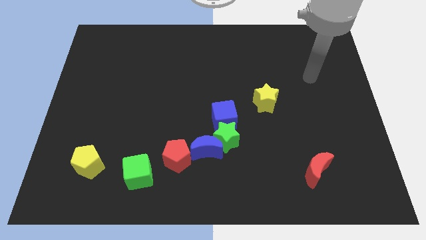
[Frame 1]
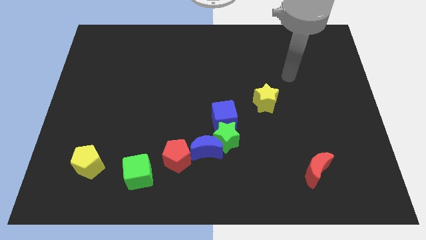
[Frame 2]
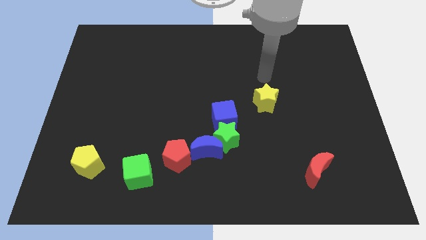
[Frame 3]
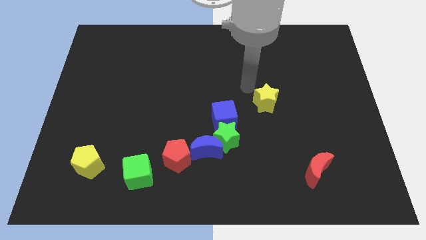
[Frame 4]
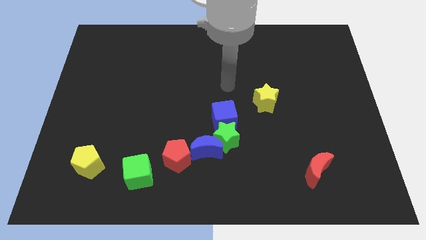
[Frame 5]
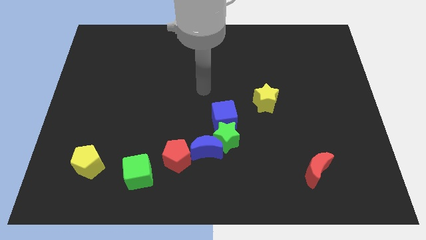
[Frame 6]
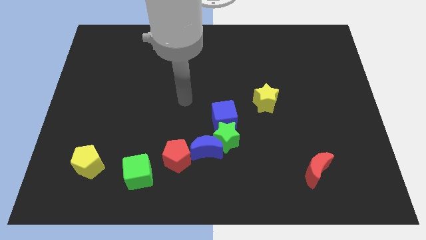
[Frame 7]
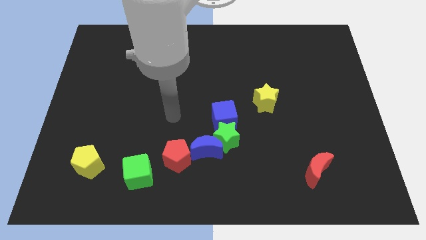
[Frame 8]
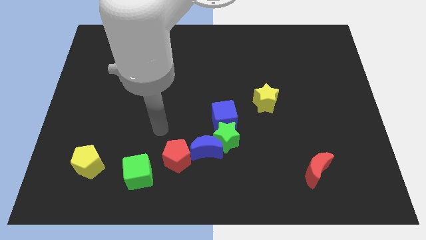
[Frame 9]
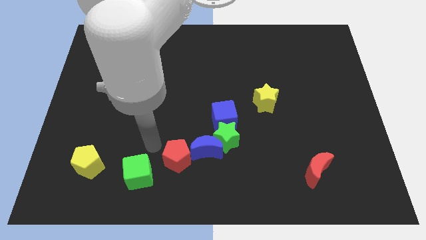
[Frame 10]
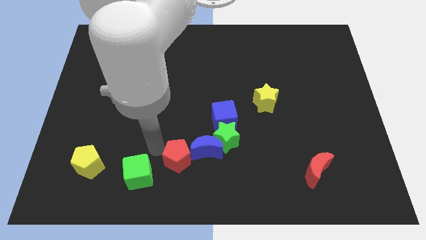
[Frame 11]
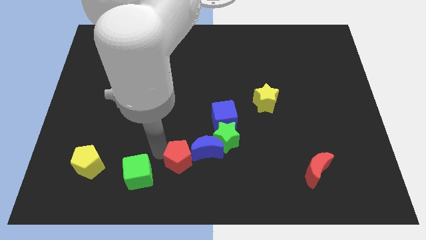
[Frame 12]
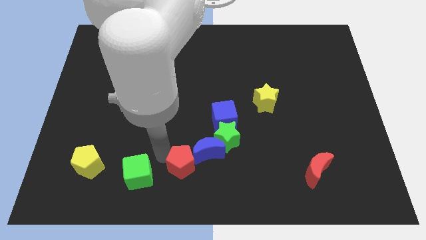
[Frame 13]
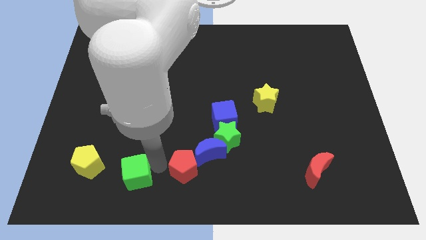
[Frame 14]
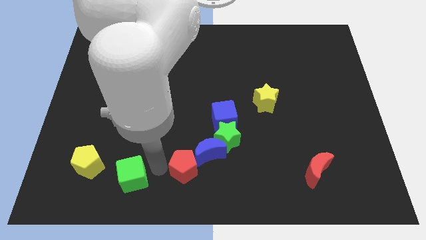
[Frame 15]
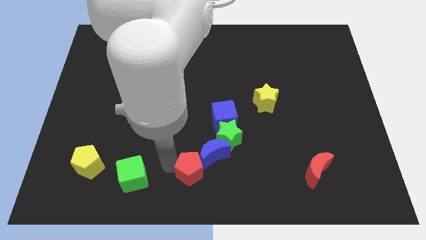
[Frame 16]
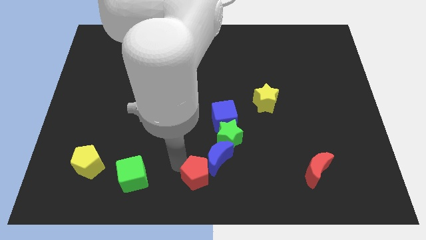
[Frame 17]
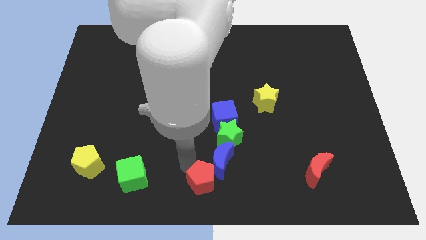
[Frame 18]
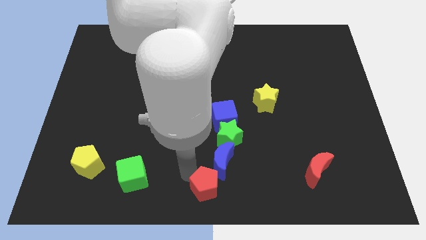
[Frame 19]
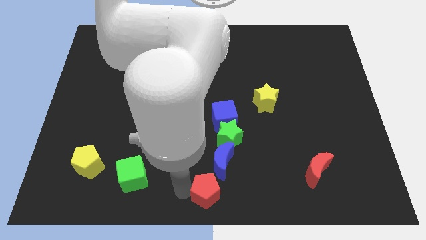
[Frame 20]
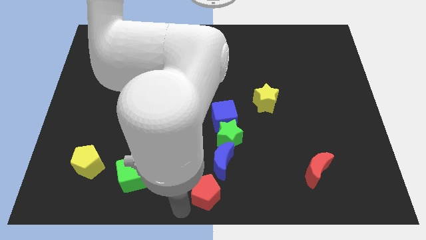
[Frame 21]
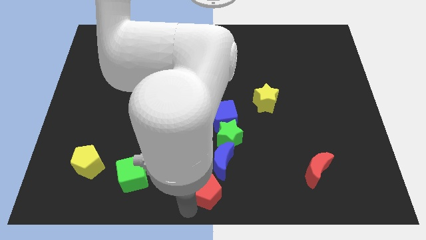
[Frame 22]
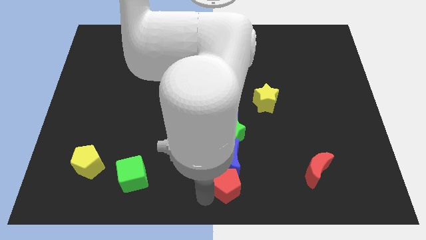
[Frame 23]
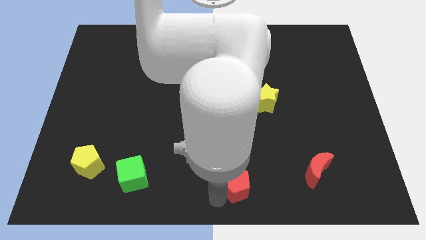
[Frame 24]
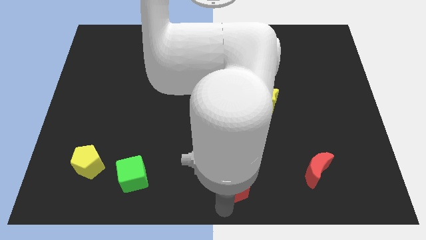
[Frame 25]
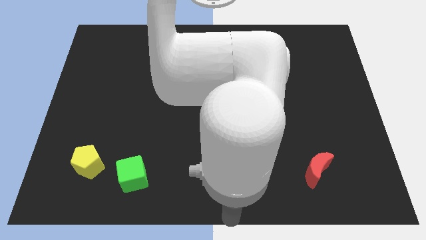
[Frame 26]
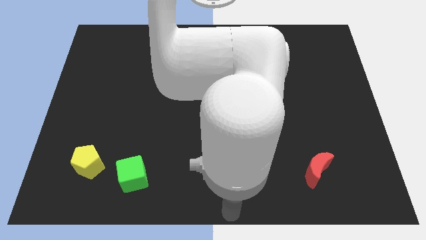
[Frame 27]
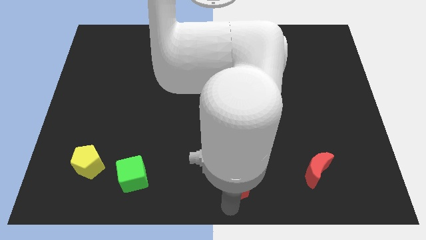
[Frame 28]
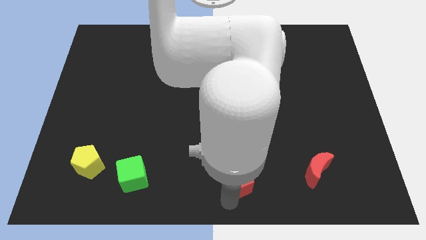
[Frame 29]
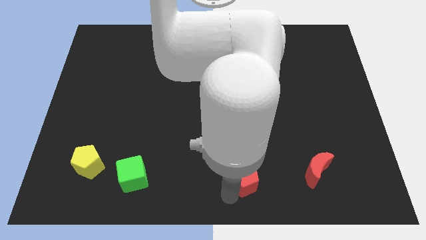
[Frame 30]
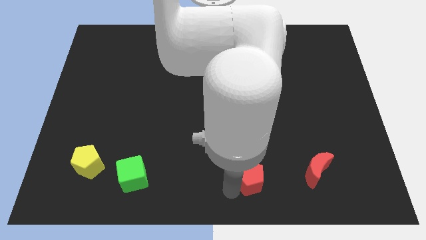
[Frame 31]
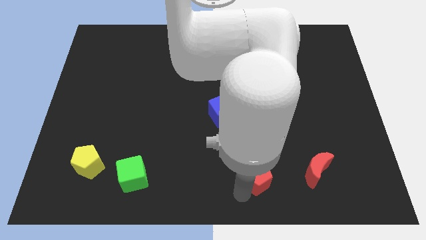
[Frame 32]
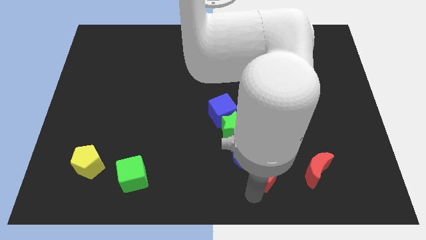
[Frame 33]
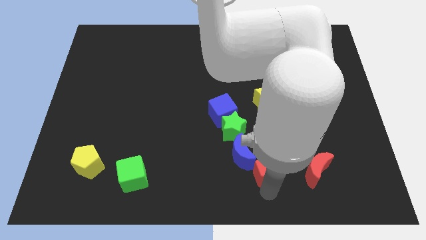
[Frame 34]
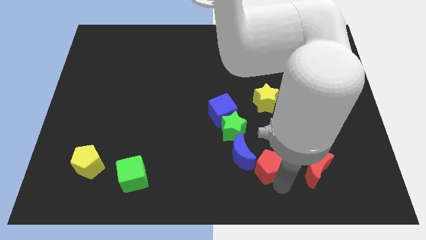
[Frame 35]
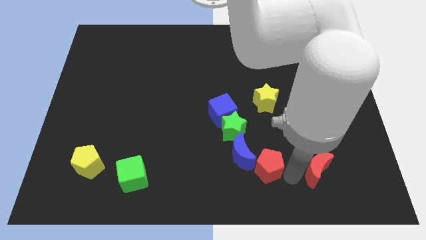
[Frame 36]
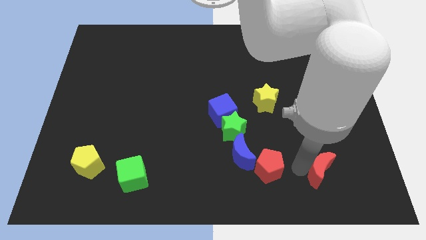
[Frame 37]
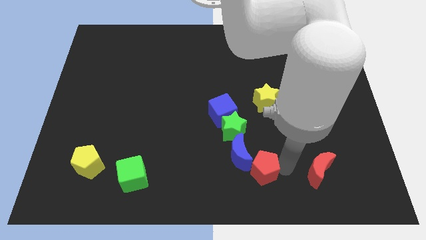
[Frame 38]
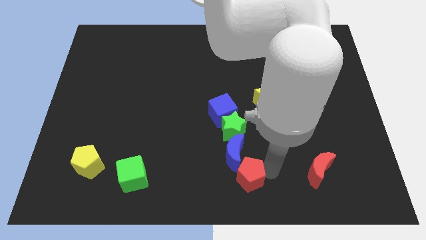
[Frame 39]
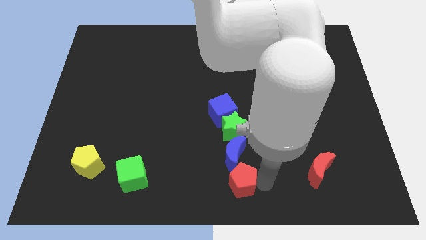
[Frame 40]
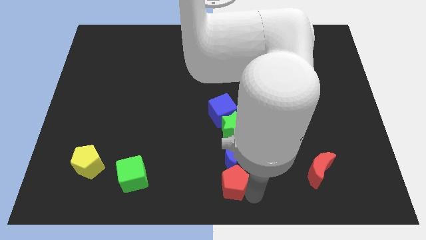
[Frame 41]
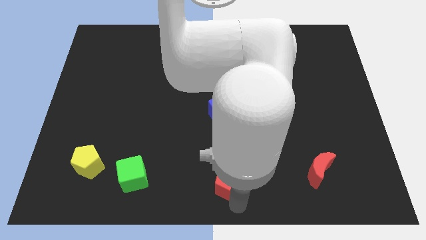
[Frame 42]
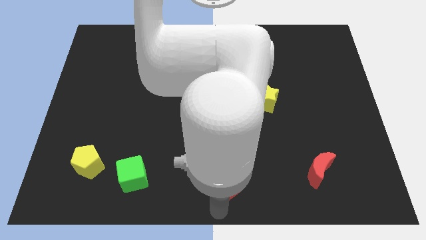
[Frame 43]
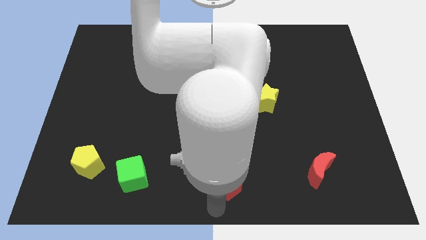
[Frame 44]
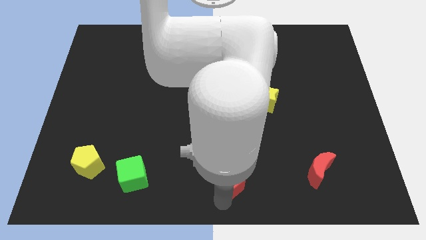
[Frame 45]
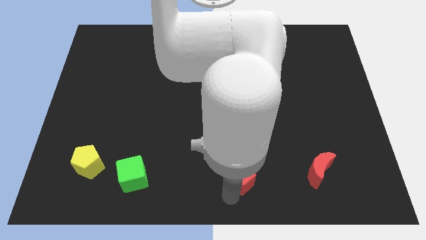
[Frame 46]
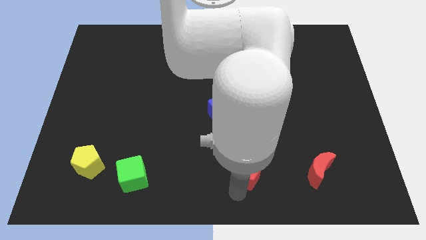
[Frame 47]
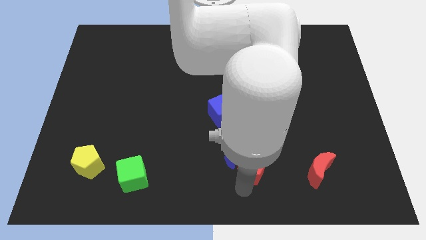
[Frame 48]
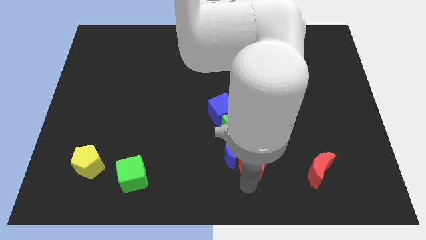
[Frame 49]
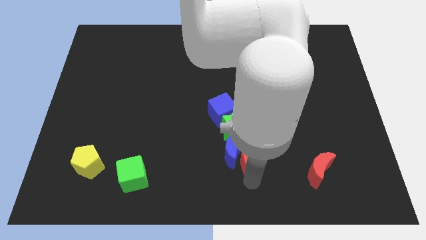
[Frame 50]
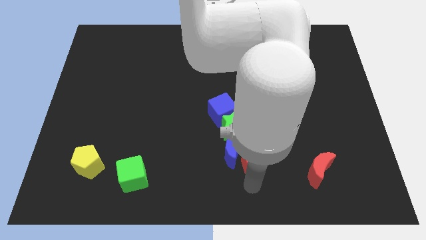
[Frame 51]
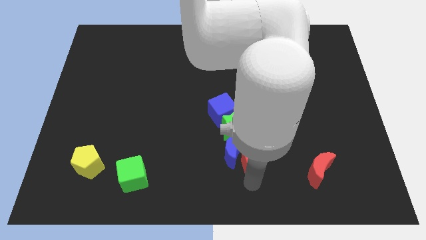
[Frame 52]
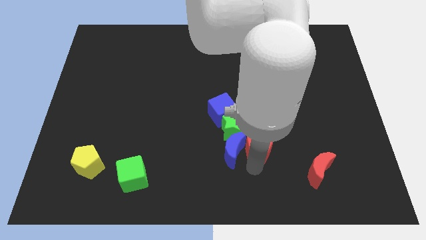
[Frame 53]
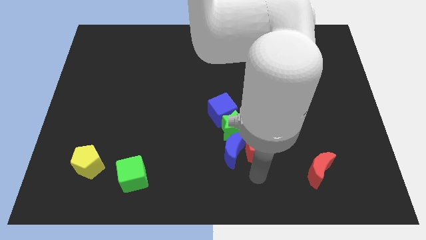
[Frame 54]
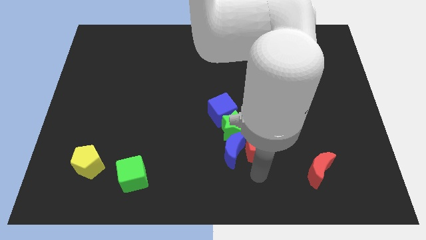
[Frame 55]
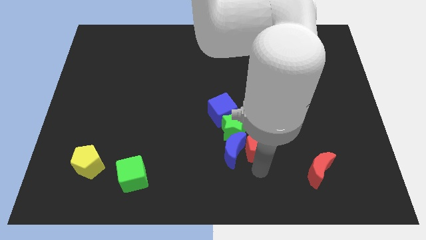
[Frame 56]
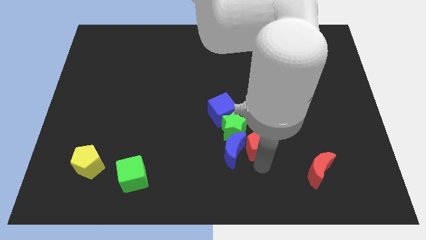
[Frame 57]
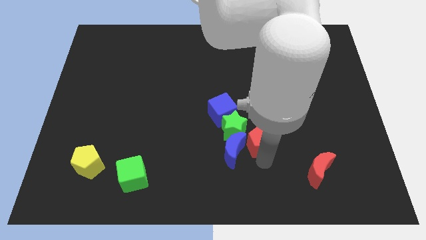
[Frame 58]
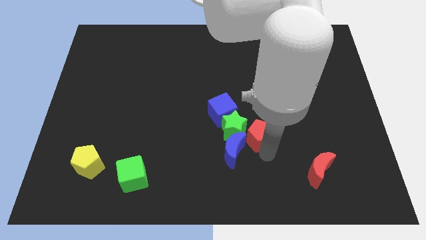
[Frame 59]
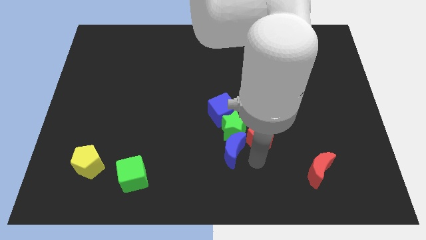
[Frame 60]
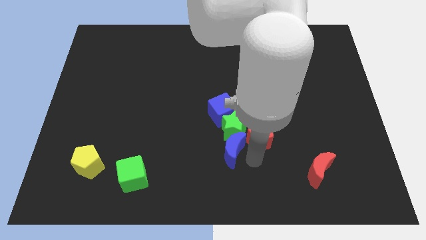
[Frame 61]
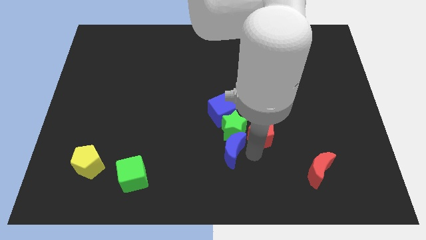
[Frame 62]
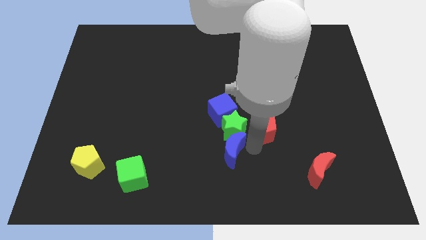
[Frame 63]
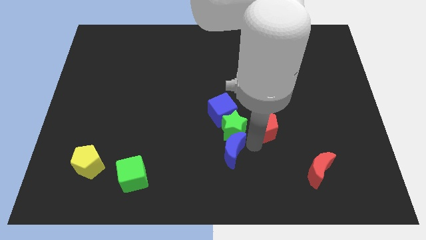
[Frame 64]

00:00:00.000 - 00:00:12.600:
put the red pentagon to the right of the blue cube

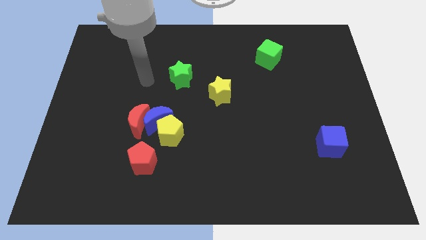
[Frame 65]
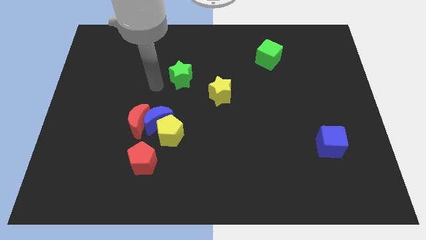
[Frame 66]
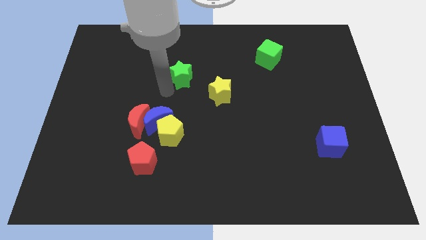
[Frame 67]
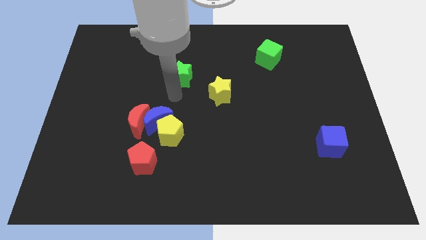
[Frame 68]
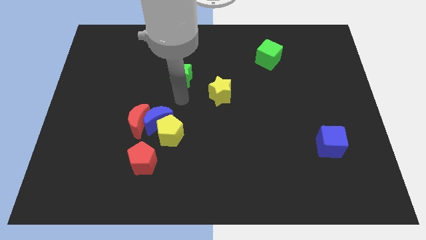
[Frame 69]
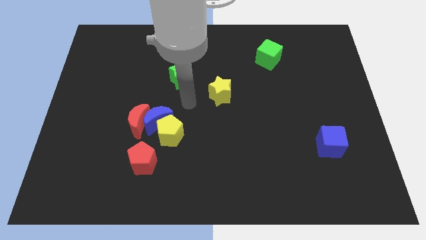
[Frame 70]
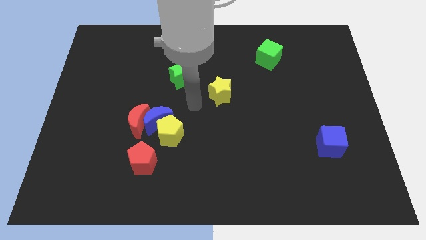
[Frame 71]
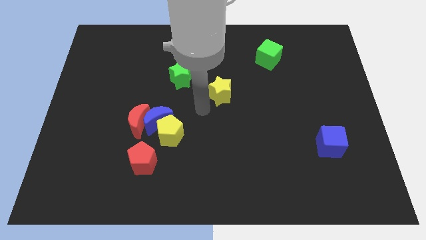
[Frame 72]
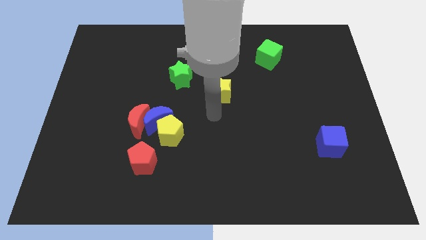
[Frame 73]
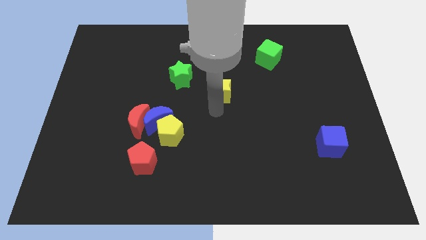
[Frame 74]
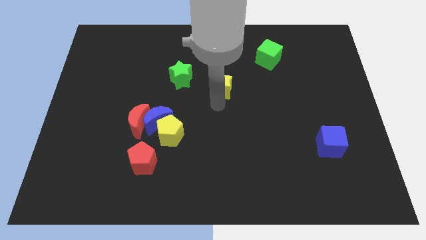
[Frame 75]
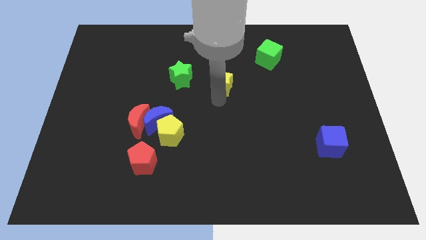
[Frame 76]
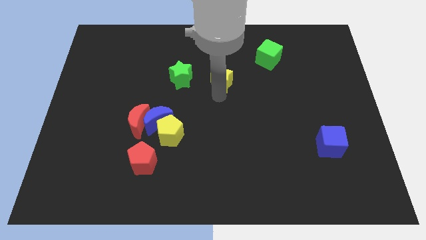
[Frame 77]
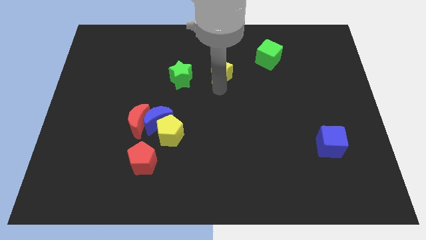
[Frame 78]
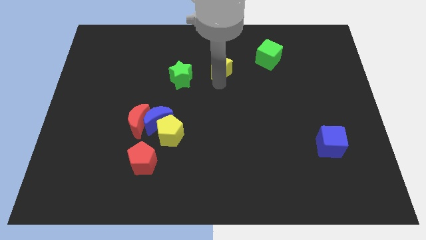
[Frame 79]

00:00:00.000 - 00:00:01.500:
put the yellow star to the left side of the green cube
